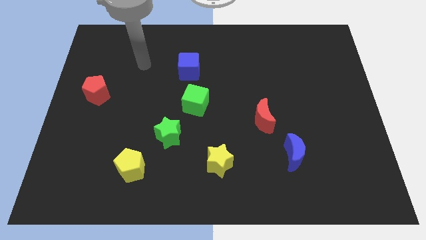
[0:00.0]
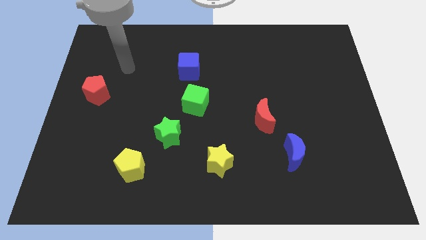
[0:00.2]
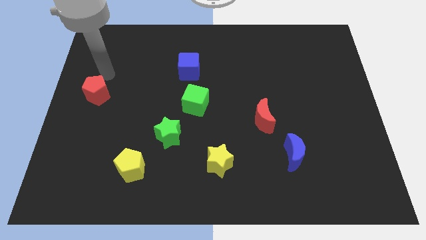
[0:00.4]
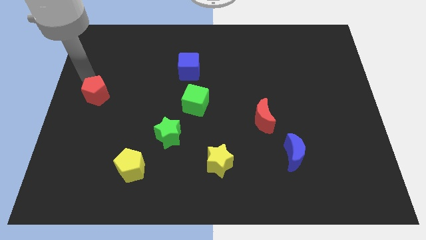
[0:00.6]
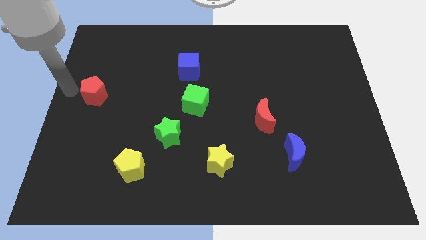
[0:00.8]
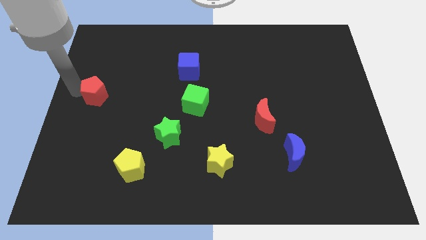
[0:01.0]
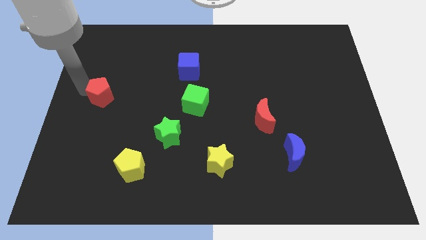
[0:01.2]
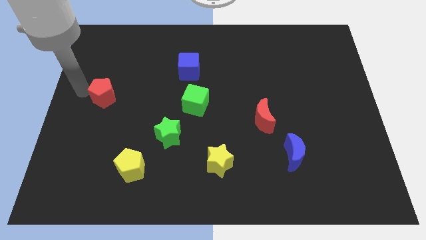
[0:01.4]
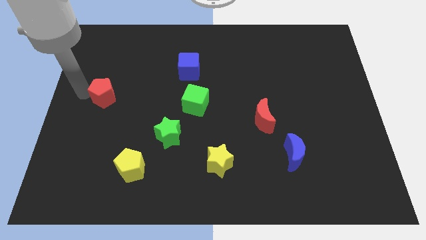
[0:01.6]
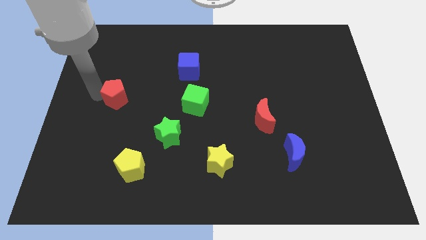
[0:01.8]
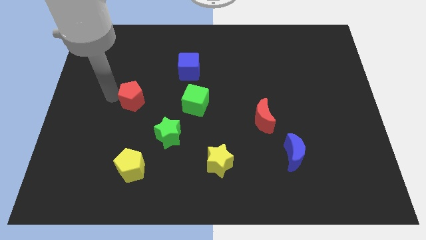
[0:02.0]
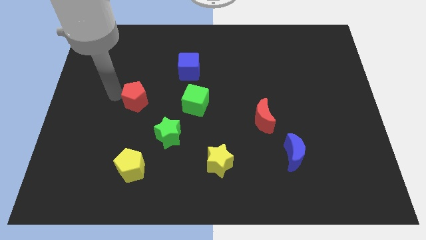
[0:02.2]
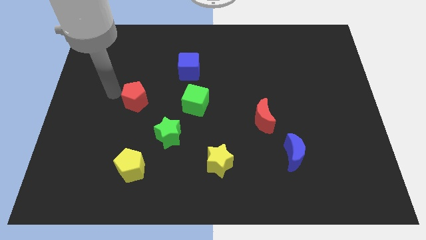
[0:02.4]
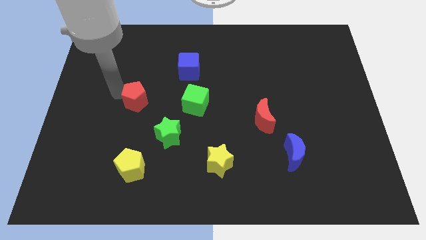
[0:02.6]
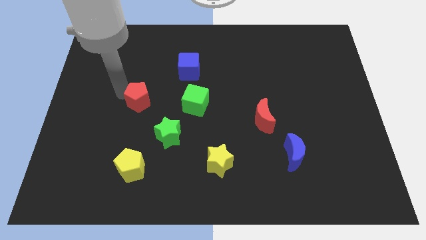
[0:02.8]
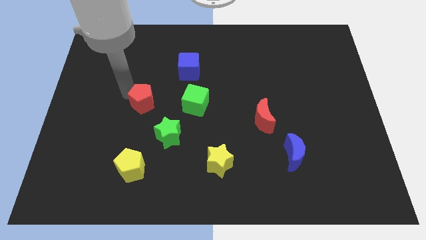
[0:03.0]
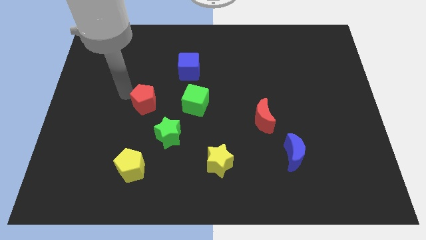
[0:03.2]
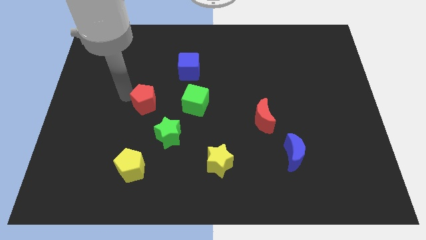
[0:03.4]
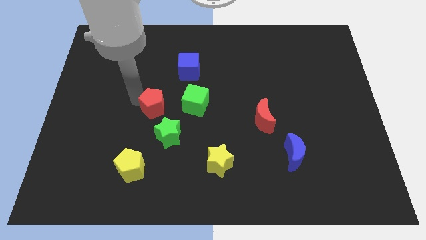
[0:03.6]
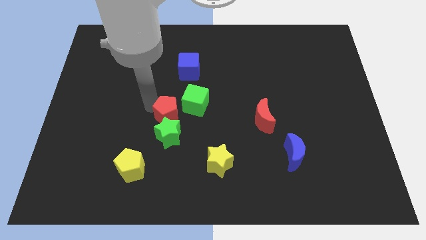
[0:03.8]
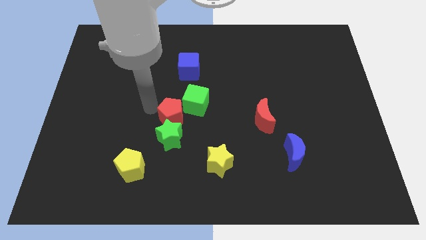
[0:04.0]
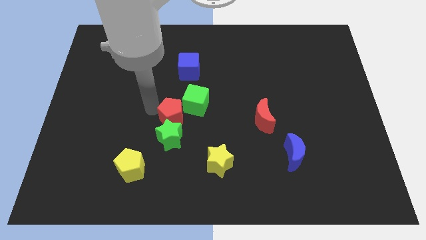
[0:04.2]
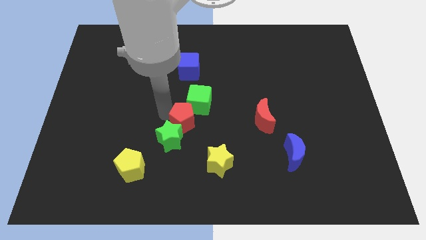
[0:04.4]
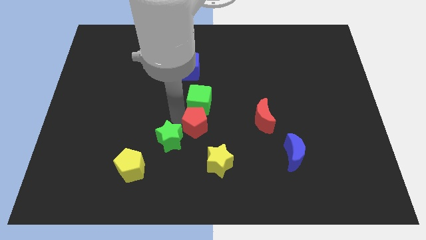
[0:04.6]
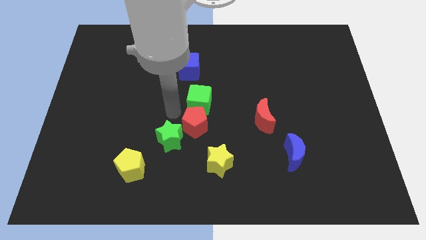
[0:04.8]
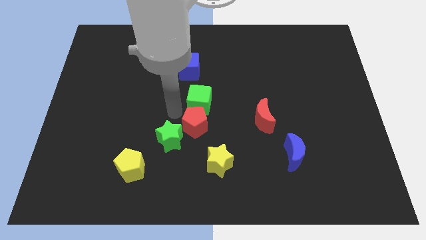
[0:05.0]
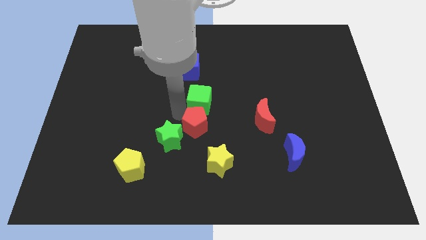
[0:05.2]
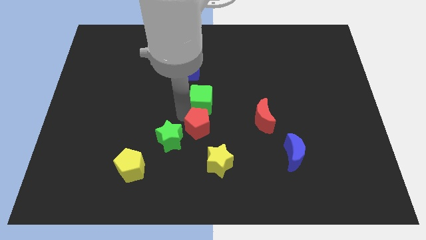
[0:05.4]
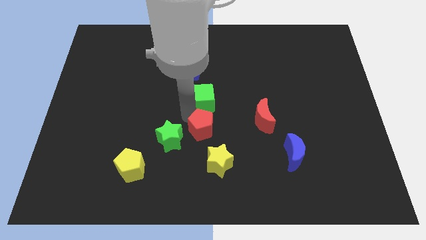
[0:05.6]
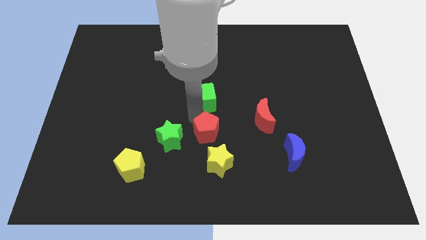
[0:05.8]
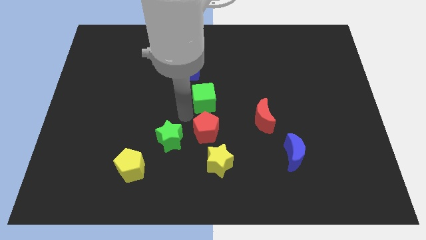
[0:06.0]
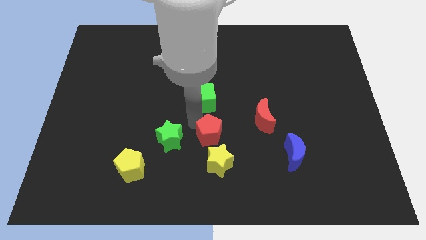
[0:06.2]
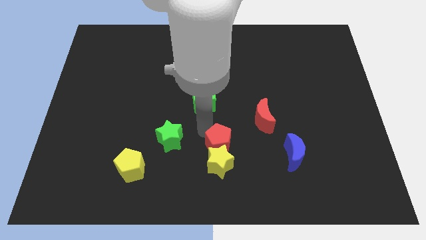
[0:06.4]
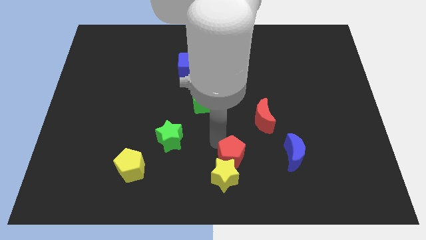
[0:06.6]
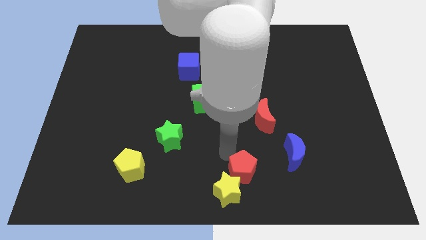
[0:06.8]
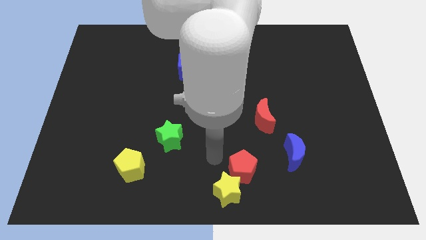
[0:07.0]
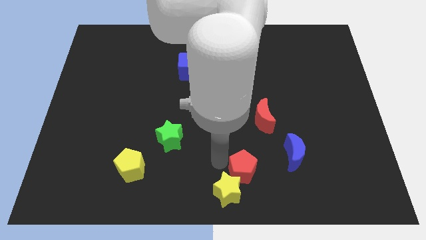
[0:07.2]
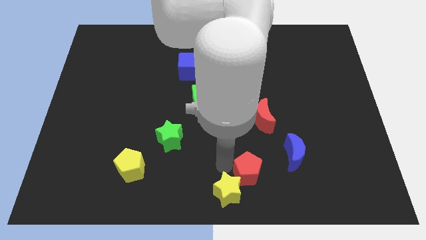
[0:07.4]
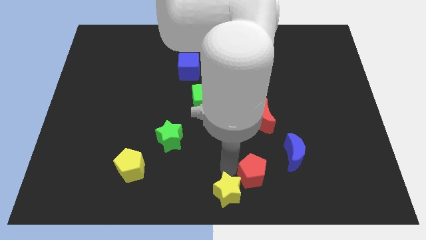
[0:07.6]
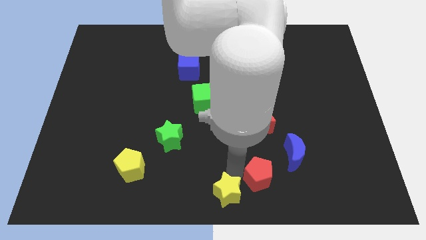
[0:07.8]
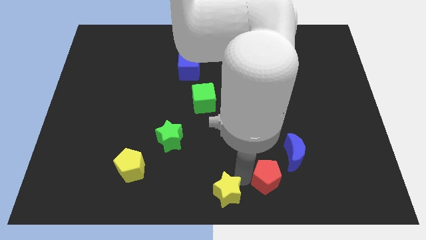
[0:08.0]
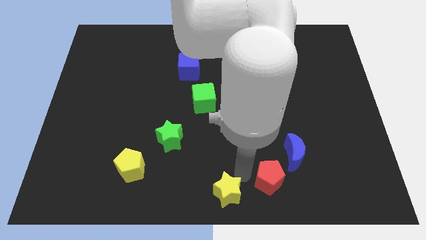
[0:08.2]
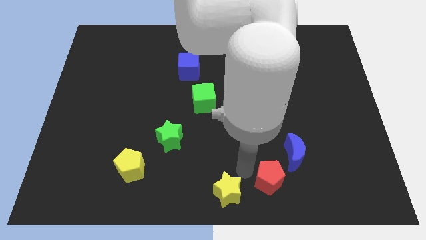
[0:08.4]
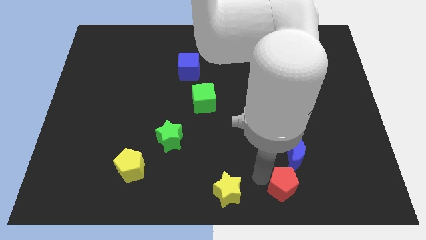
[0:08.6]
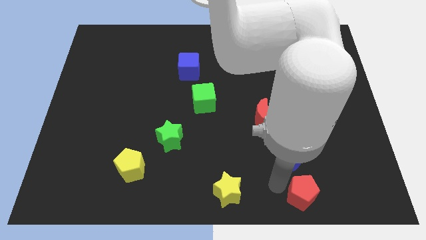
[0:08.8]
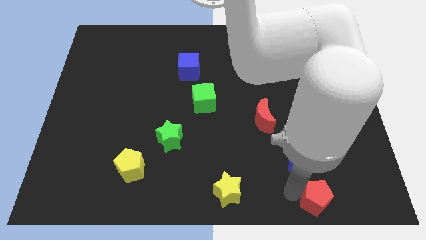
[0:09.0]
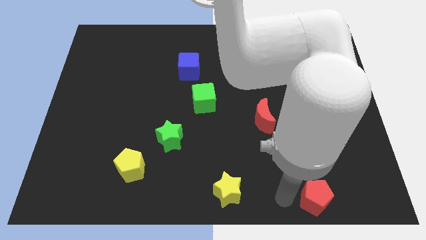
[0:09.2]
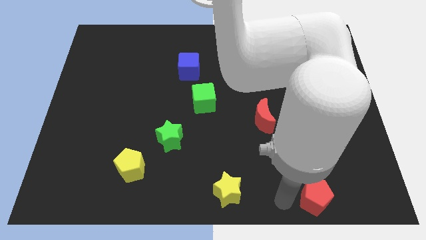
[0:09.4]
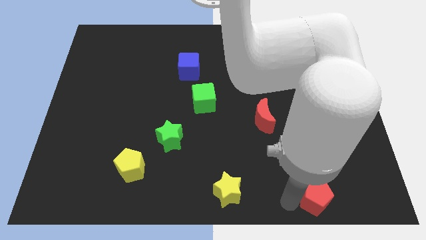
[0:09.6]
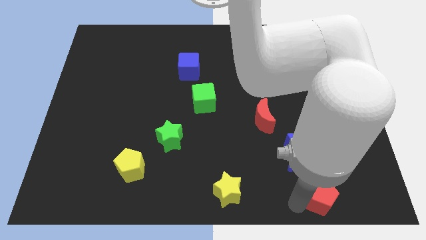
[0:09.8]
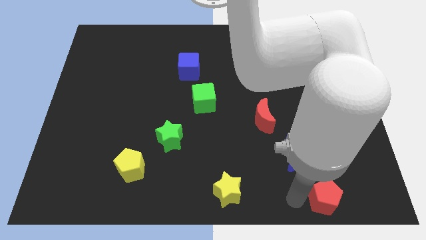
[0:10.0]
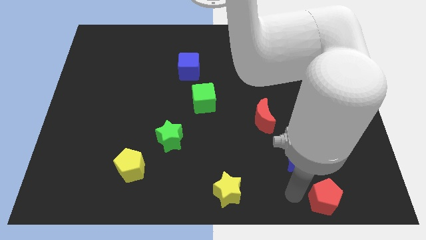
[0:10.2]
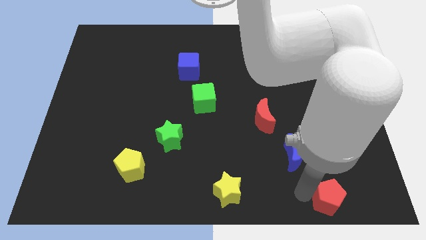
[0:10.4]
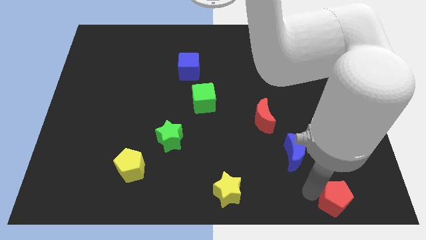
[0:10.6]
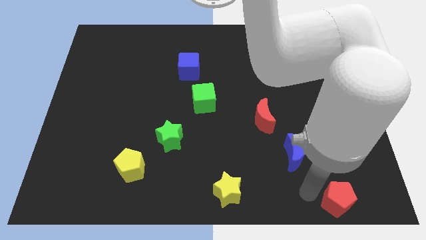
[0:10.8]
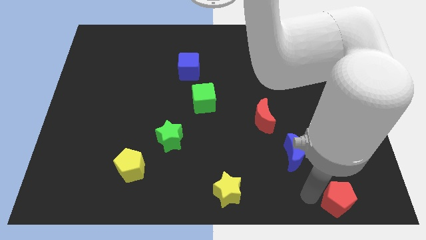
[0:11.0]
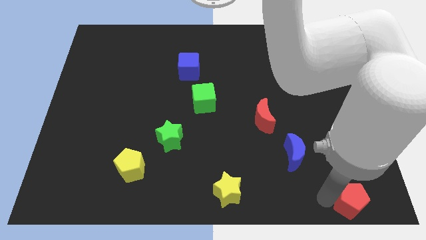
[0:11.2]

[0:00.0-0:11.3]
slide the red pentagon to the bottom right corner

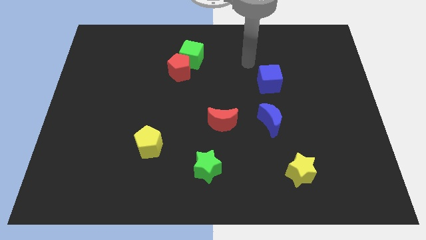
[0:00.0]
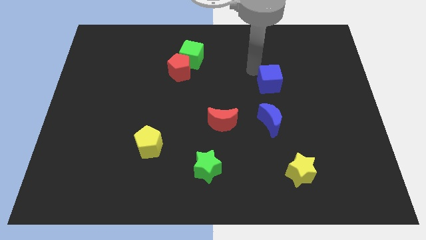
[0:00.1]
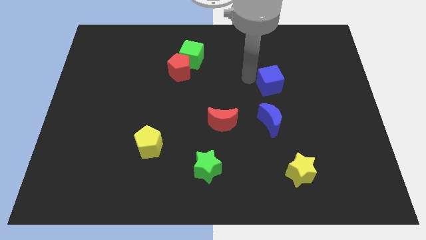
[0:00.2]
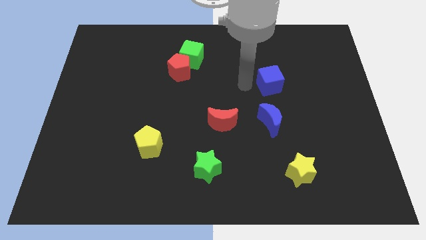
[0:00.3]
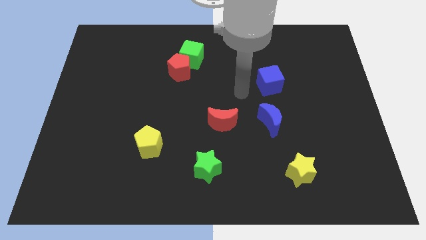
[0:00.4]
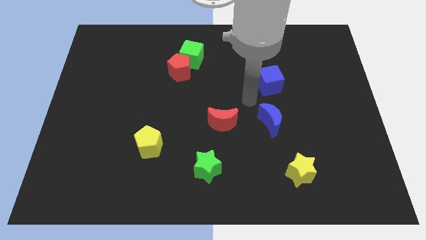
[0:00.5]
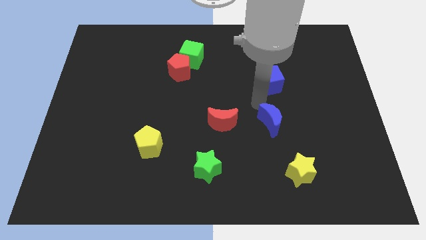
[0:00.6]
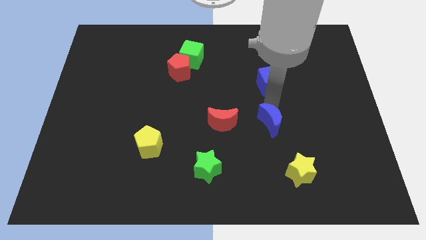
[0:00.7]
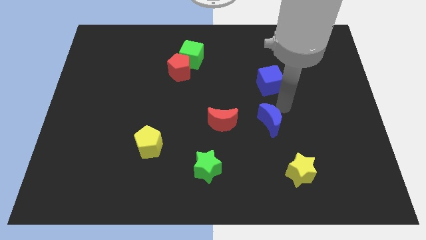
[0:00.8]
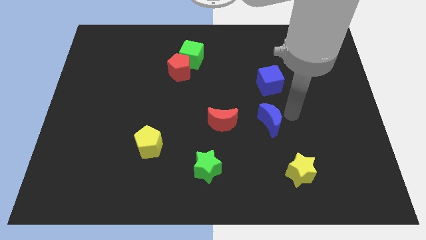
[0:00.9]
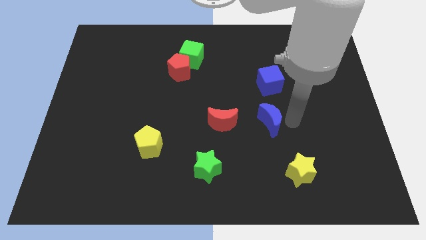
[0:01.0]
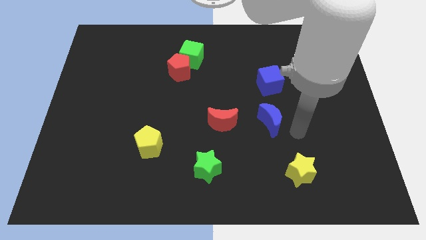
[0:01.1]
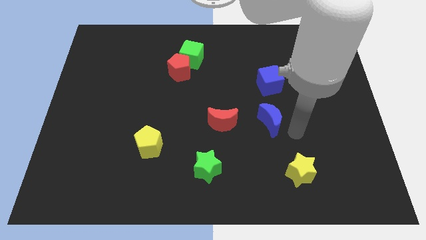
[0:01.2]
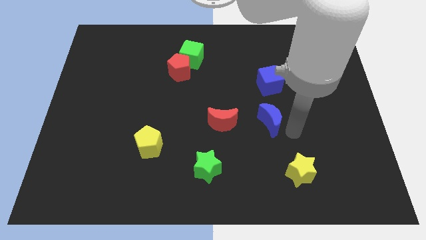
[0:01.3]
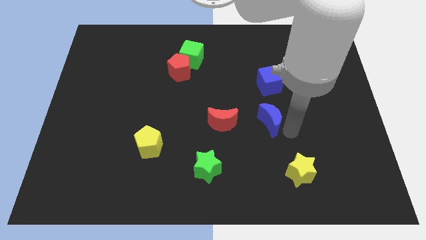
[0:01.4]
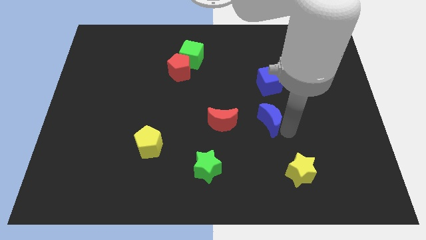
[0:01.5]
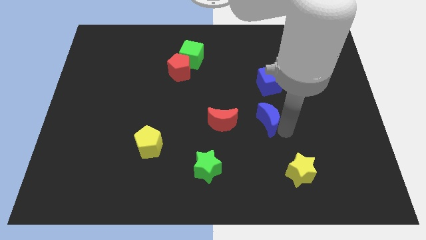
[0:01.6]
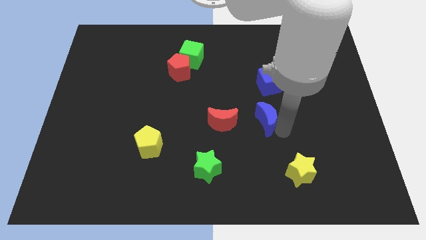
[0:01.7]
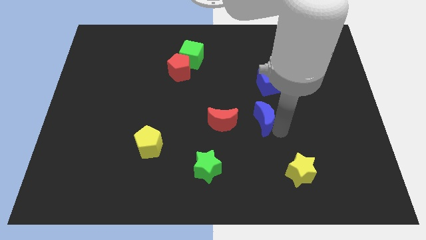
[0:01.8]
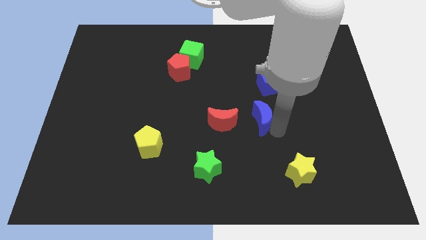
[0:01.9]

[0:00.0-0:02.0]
push the blue moon to the center
